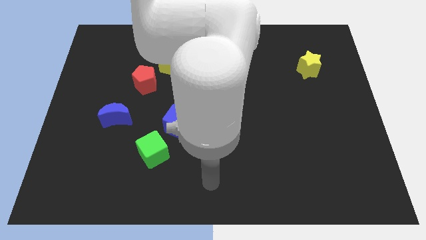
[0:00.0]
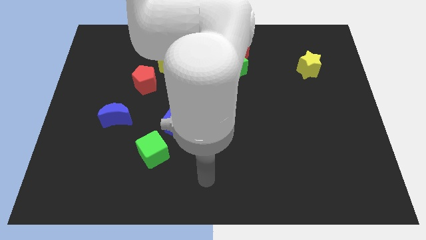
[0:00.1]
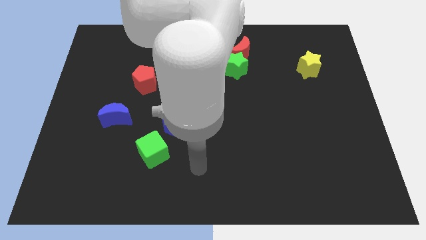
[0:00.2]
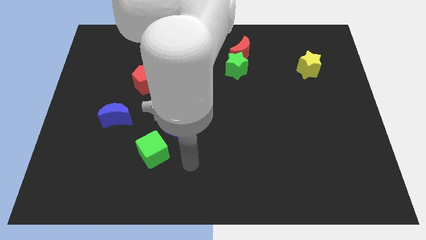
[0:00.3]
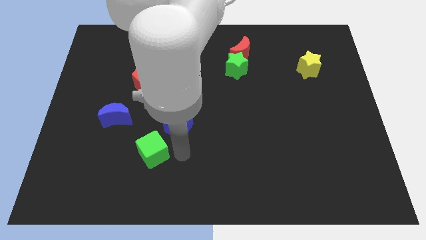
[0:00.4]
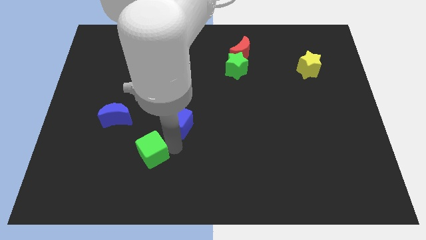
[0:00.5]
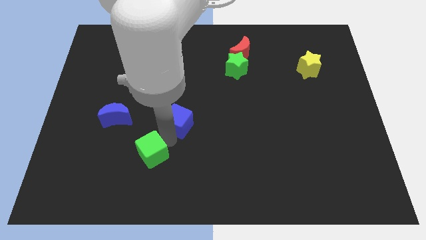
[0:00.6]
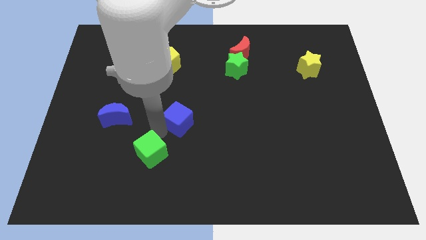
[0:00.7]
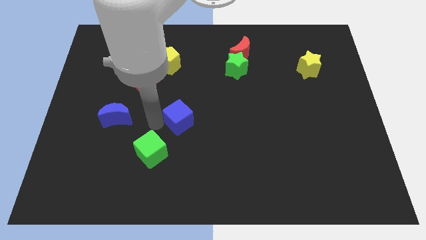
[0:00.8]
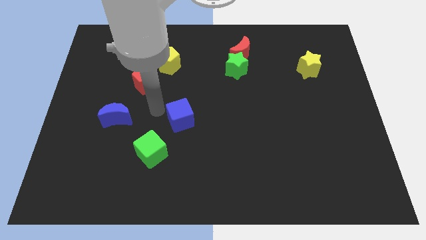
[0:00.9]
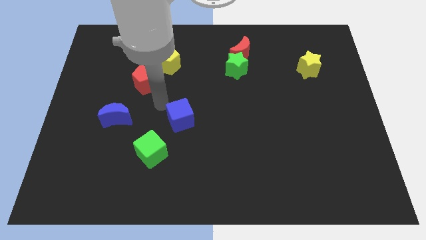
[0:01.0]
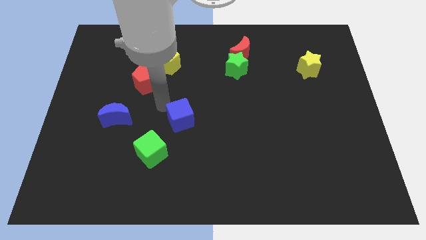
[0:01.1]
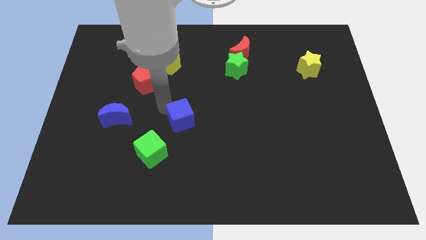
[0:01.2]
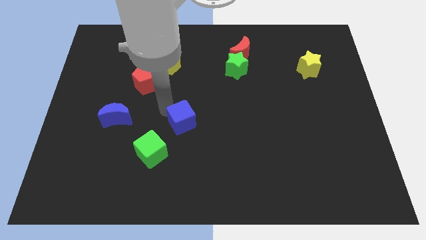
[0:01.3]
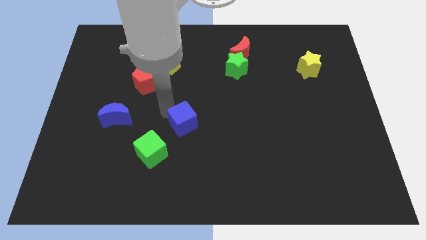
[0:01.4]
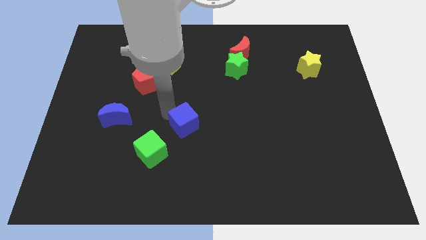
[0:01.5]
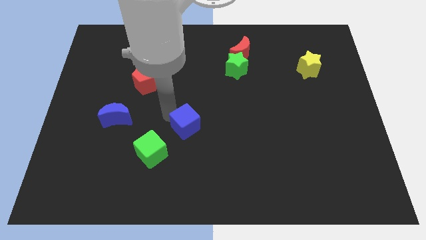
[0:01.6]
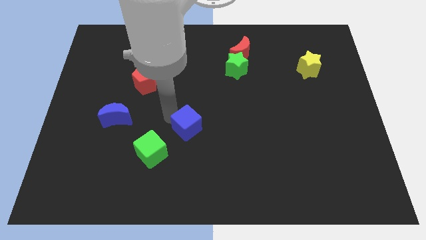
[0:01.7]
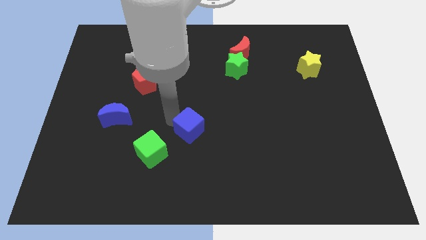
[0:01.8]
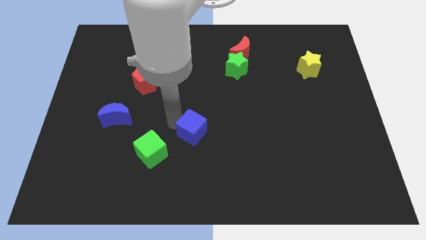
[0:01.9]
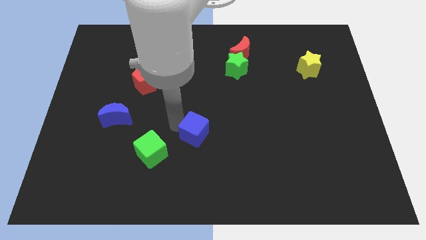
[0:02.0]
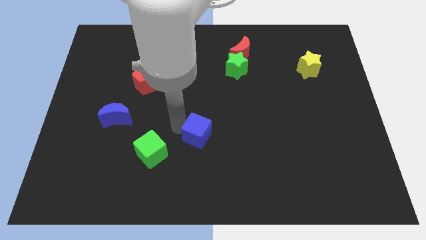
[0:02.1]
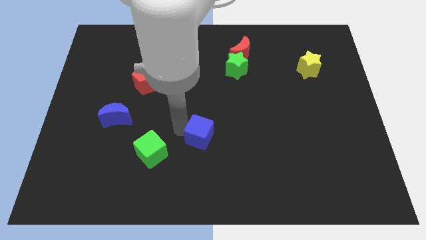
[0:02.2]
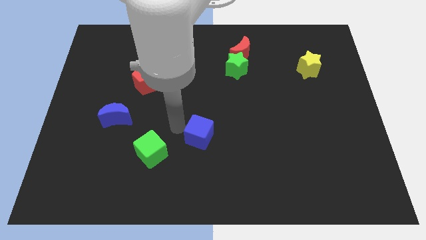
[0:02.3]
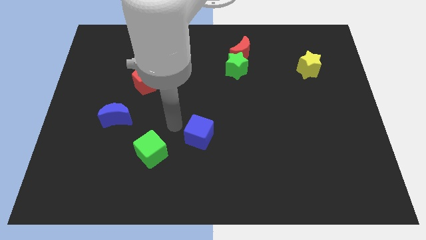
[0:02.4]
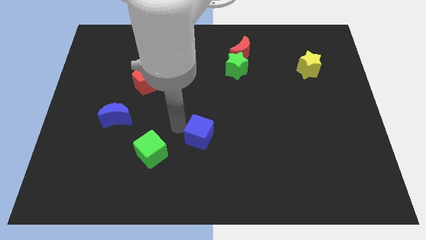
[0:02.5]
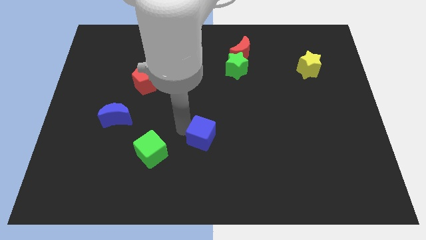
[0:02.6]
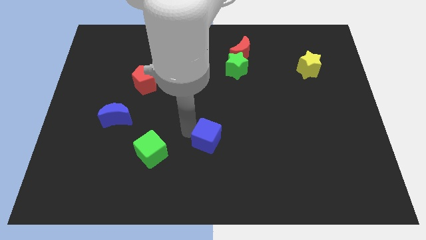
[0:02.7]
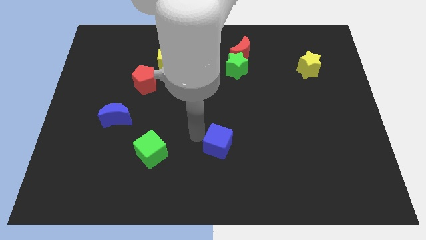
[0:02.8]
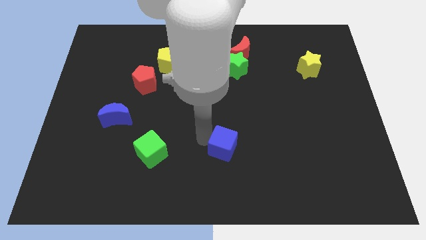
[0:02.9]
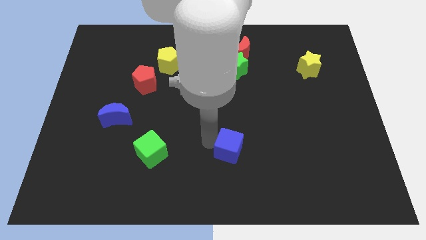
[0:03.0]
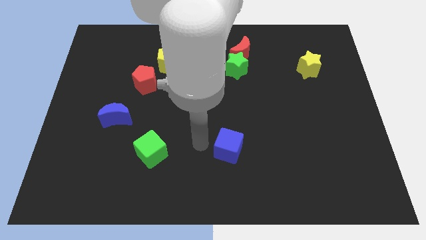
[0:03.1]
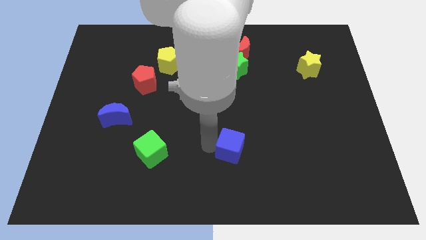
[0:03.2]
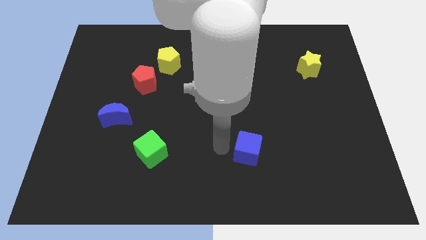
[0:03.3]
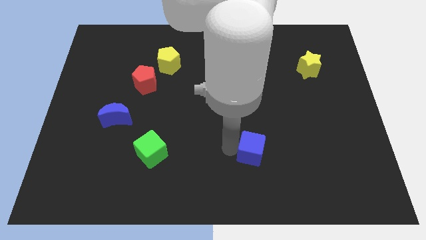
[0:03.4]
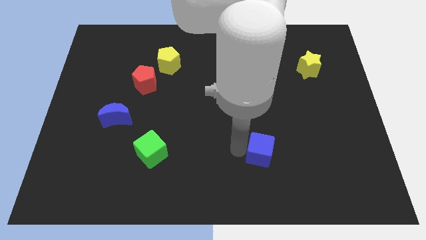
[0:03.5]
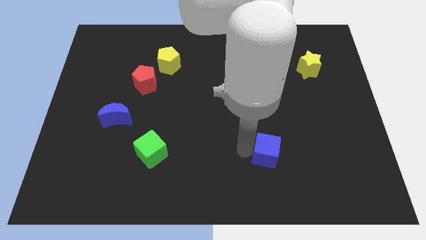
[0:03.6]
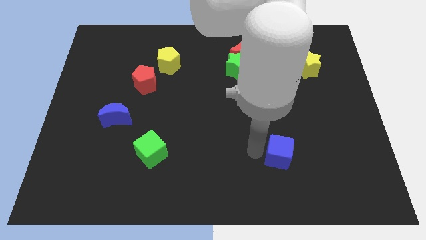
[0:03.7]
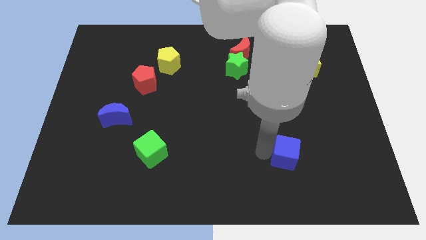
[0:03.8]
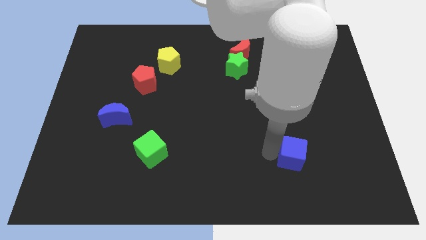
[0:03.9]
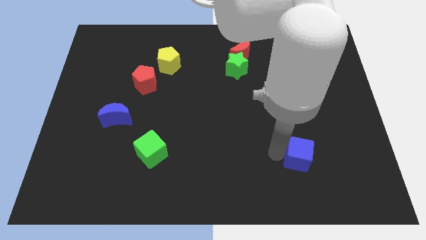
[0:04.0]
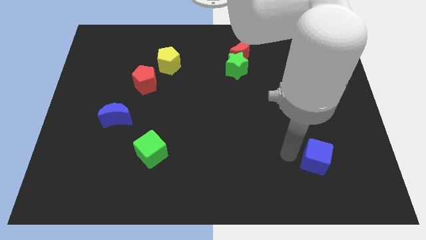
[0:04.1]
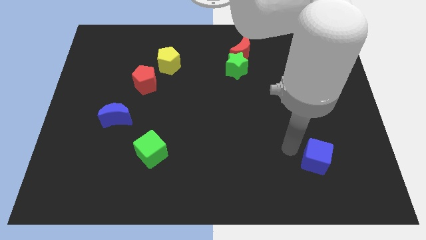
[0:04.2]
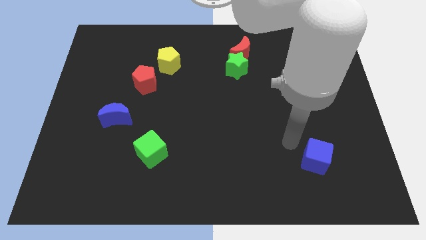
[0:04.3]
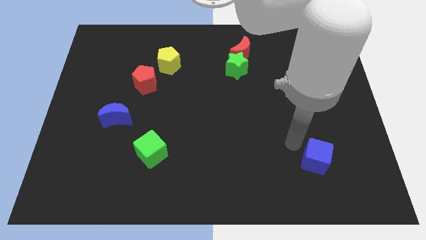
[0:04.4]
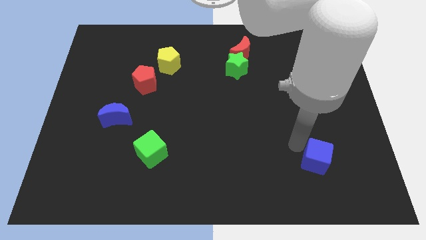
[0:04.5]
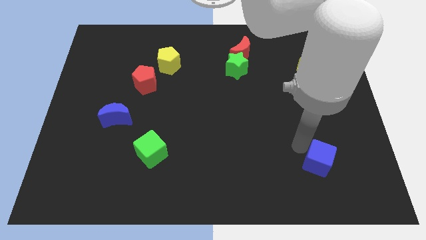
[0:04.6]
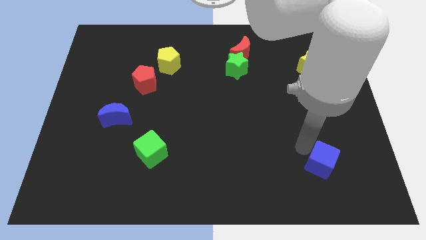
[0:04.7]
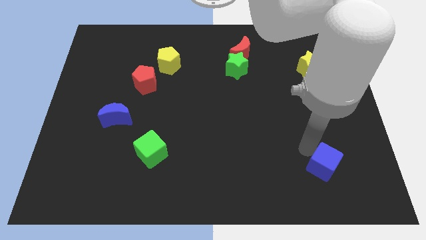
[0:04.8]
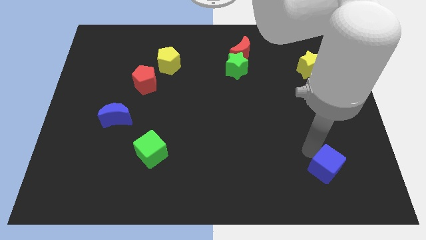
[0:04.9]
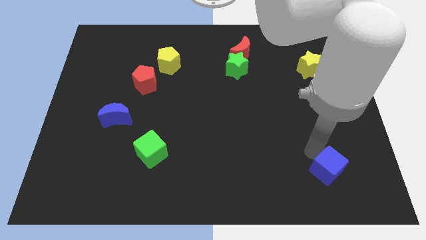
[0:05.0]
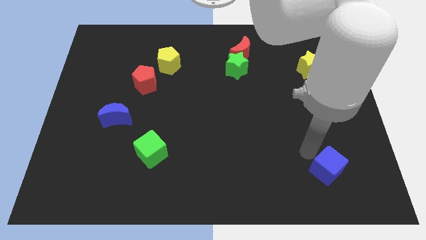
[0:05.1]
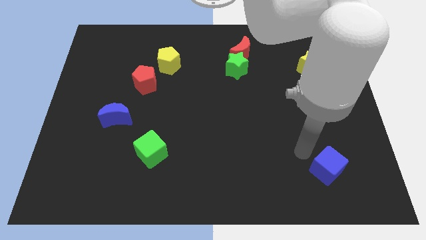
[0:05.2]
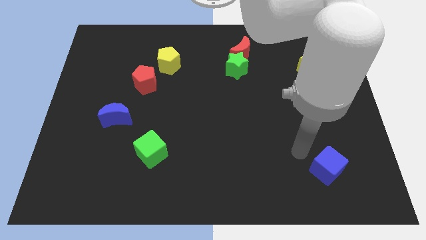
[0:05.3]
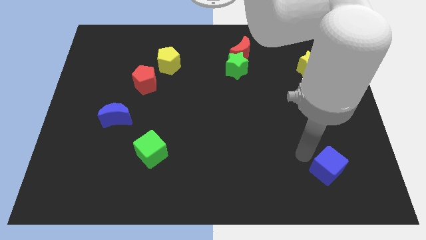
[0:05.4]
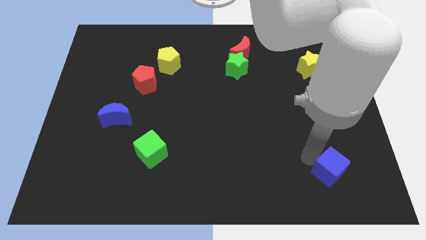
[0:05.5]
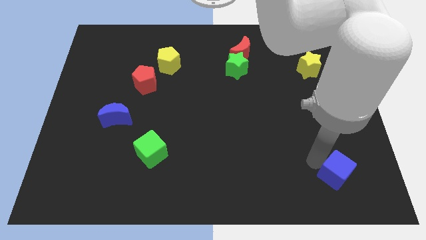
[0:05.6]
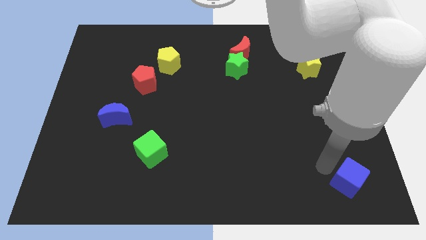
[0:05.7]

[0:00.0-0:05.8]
push the blue cube to the bottom right corner
